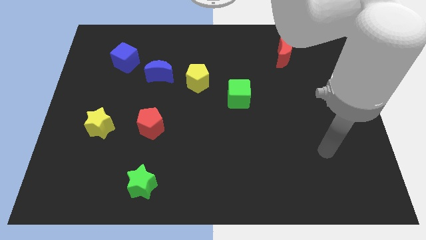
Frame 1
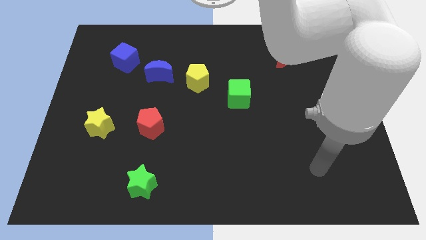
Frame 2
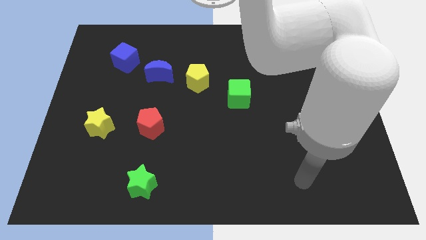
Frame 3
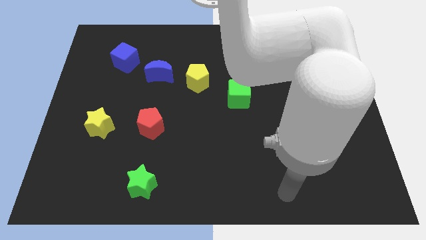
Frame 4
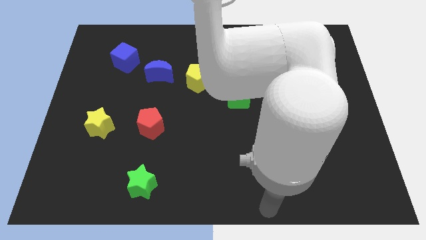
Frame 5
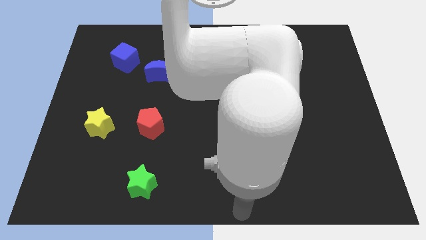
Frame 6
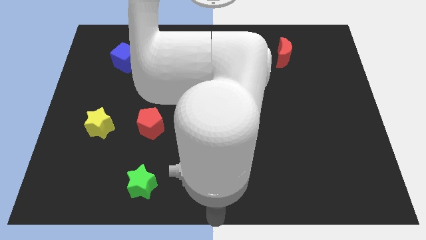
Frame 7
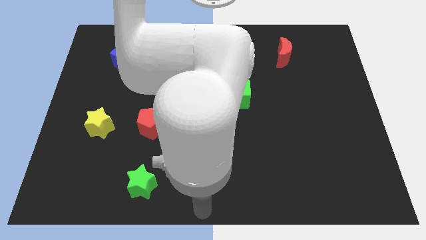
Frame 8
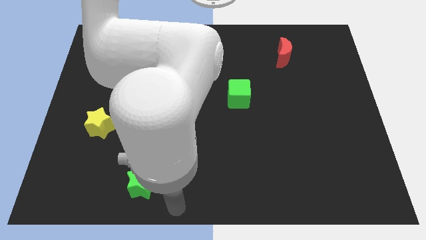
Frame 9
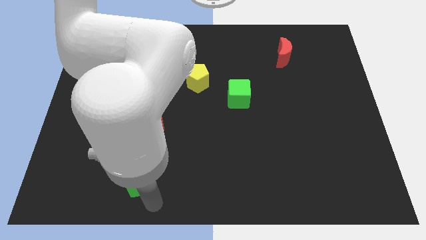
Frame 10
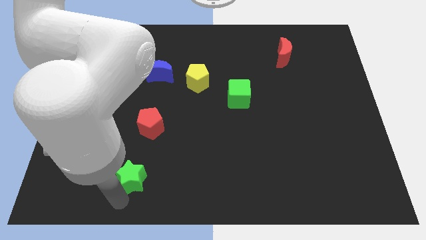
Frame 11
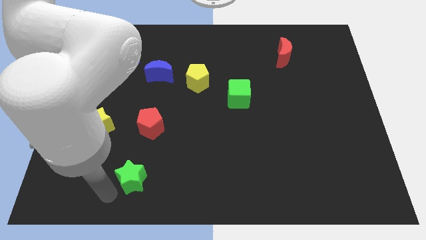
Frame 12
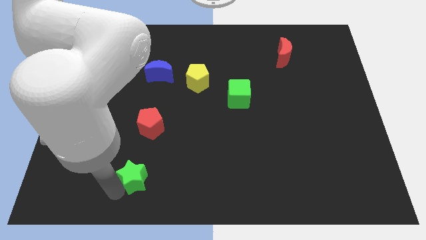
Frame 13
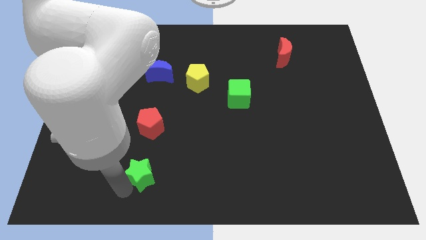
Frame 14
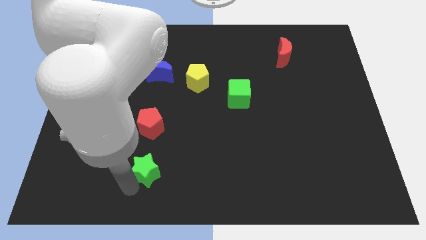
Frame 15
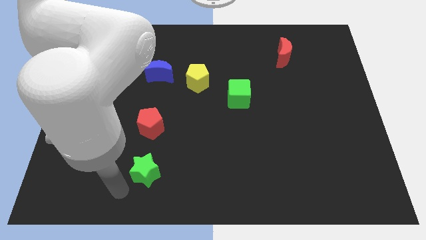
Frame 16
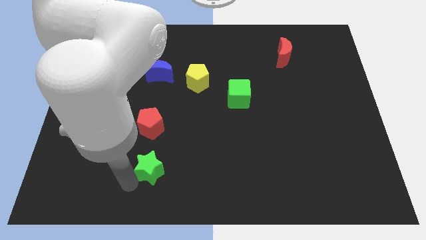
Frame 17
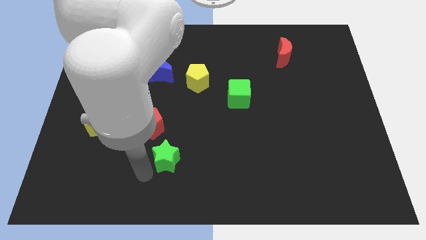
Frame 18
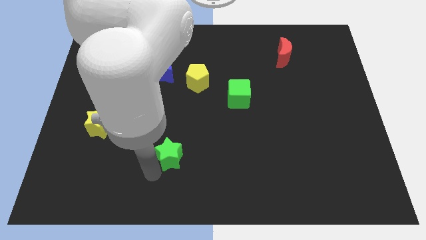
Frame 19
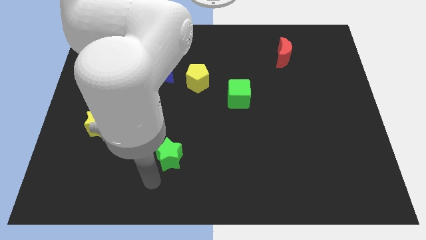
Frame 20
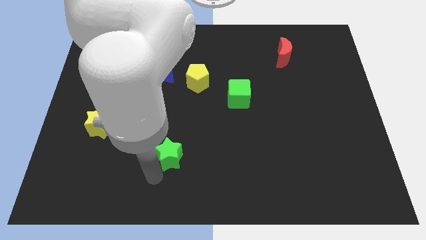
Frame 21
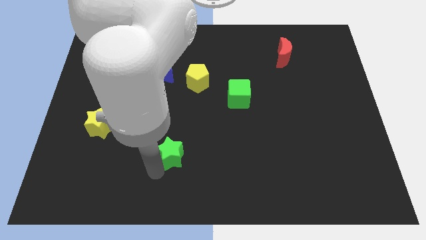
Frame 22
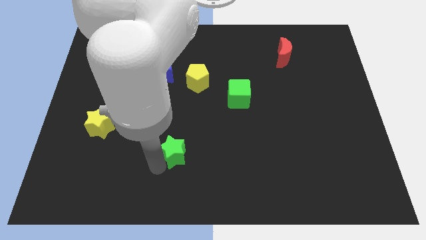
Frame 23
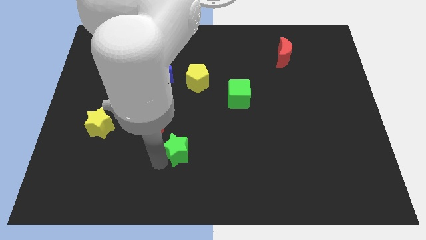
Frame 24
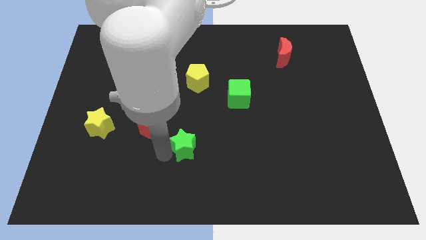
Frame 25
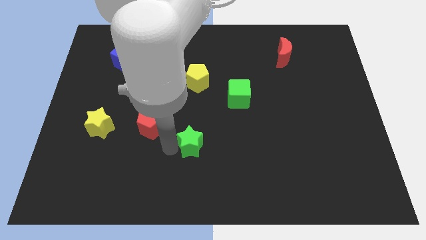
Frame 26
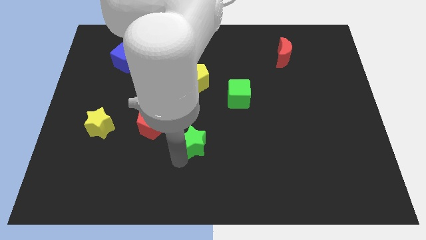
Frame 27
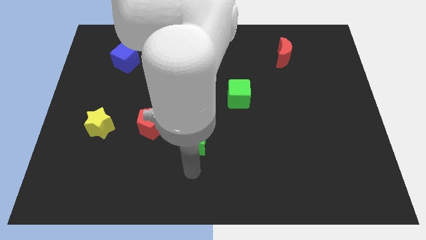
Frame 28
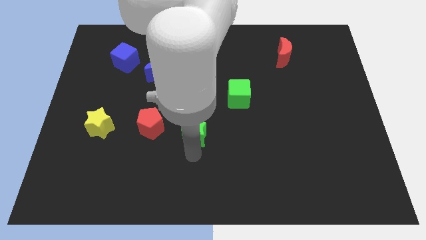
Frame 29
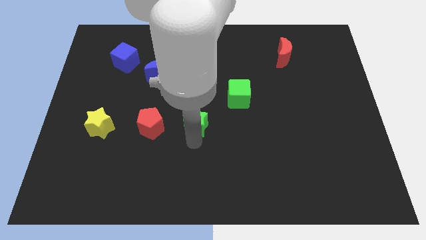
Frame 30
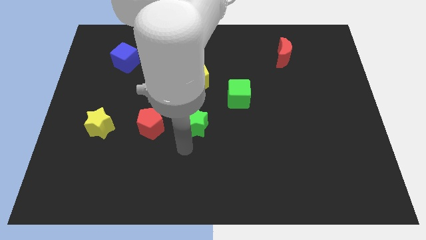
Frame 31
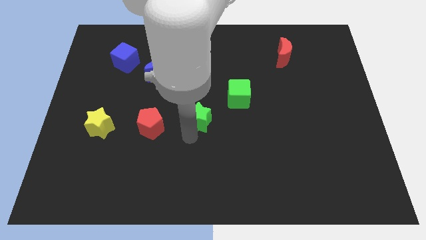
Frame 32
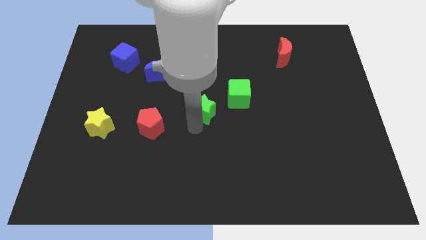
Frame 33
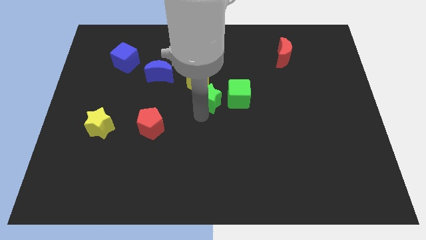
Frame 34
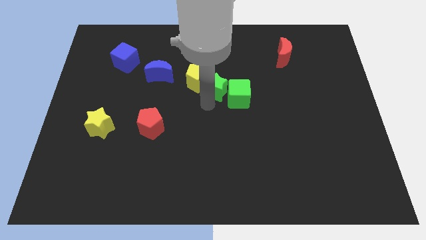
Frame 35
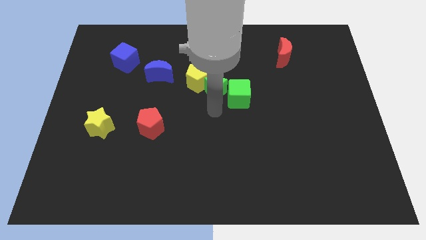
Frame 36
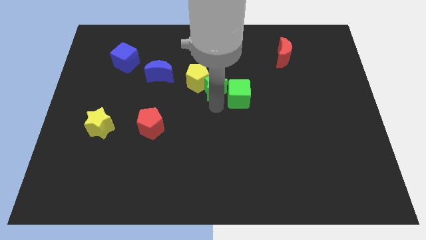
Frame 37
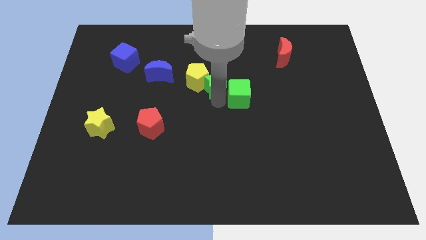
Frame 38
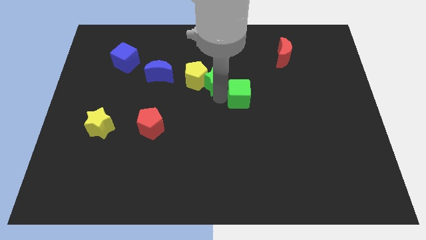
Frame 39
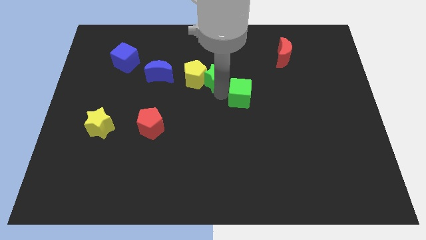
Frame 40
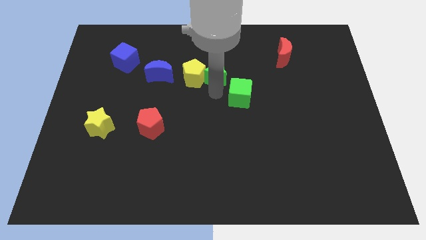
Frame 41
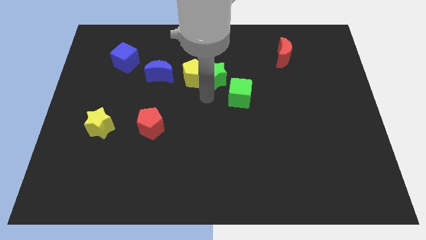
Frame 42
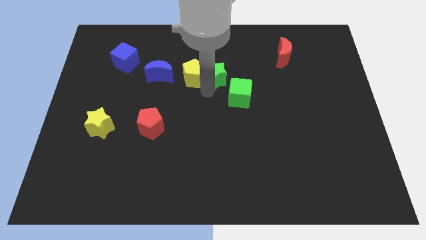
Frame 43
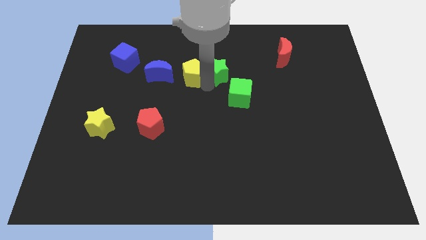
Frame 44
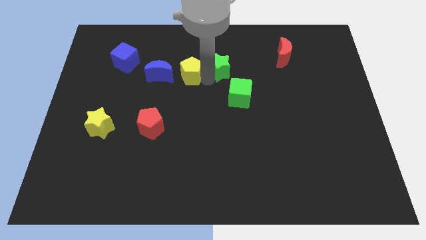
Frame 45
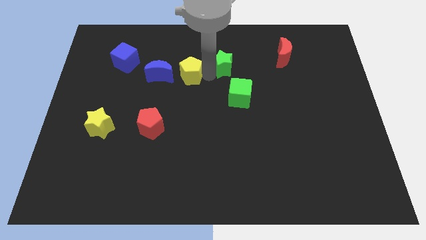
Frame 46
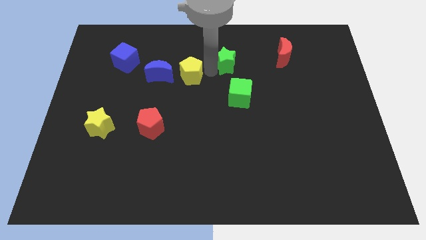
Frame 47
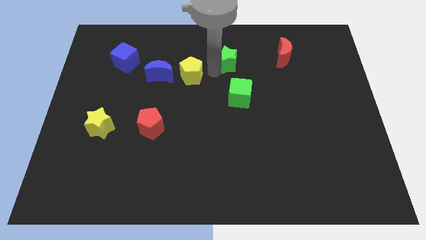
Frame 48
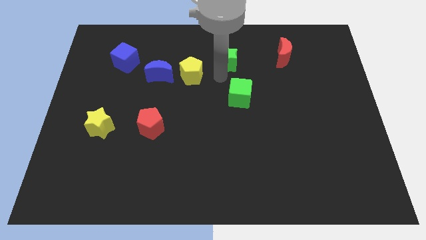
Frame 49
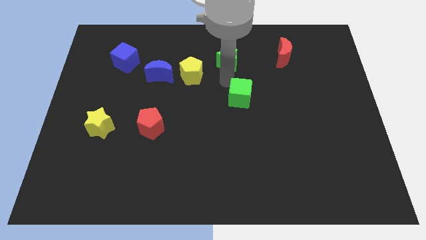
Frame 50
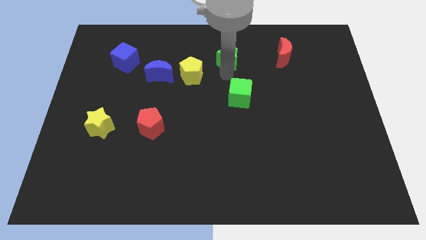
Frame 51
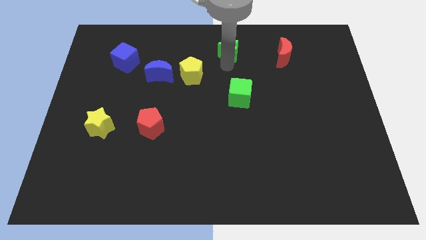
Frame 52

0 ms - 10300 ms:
put the green star to the top side

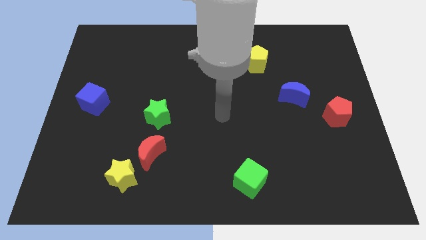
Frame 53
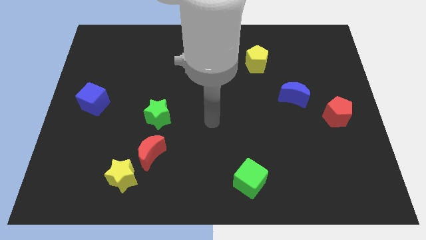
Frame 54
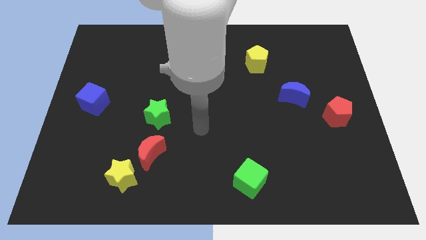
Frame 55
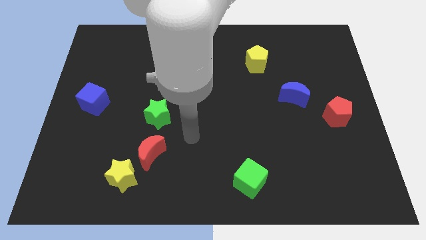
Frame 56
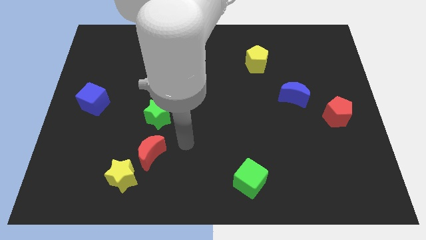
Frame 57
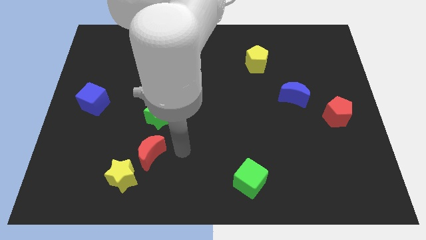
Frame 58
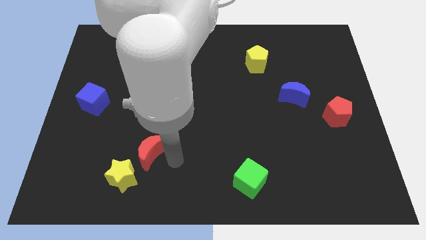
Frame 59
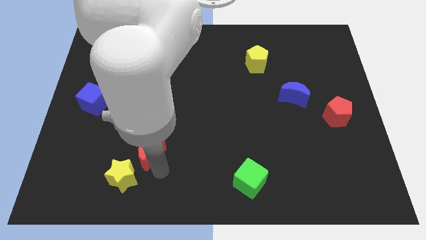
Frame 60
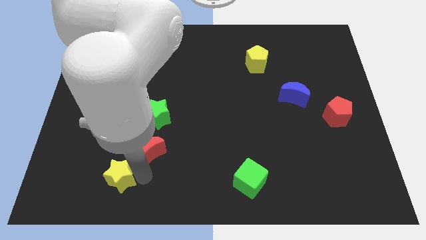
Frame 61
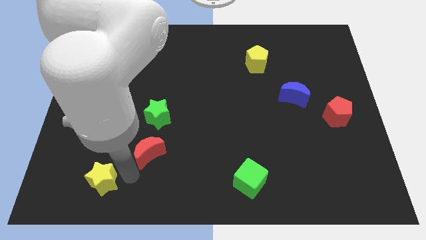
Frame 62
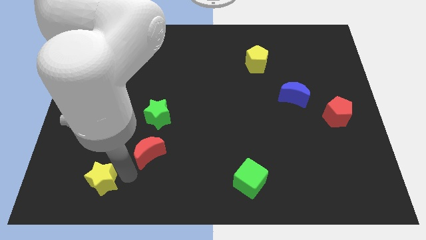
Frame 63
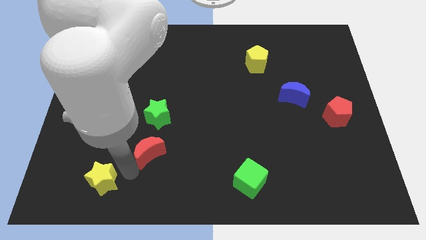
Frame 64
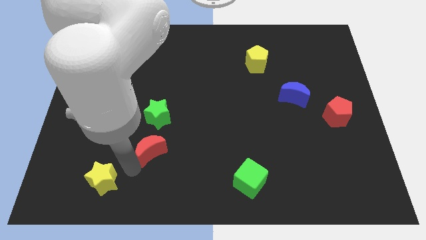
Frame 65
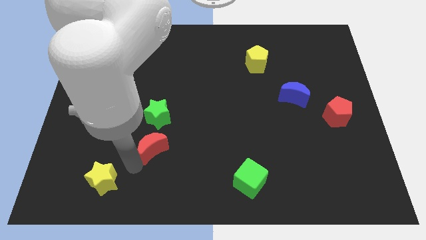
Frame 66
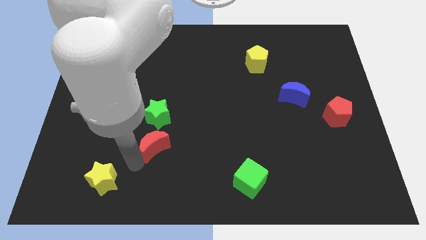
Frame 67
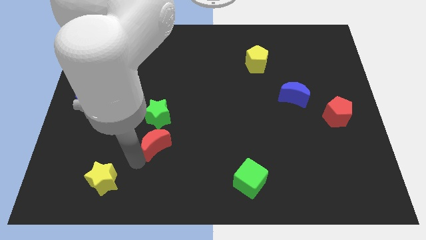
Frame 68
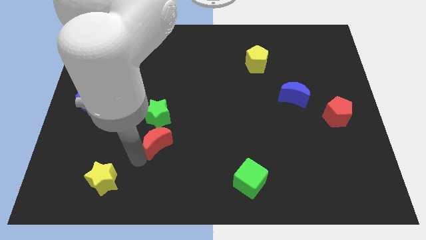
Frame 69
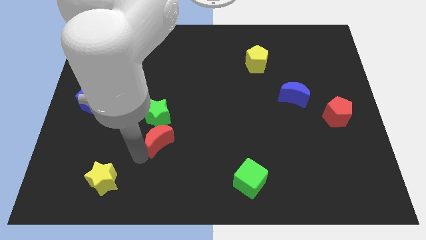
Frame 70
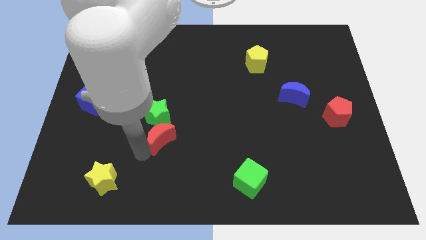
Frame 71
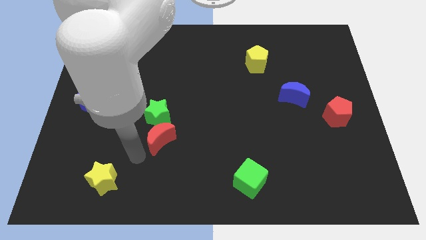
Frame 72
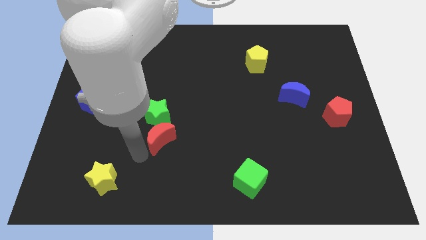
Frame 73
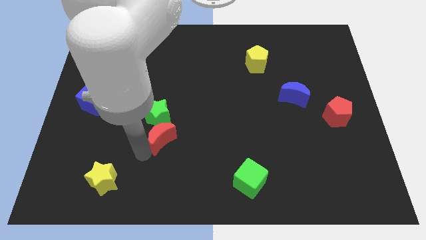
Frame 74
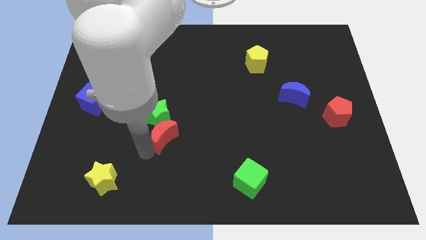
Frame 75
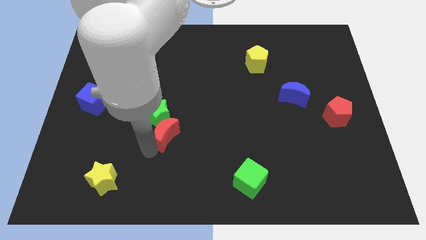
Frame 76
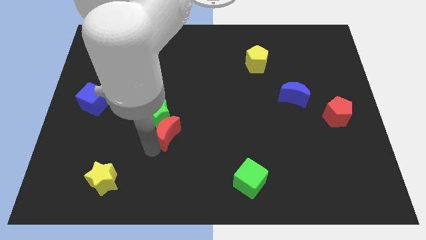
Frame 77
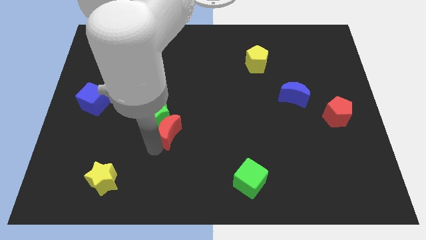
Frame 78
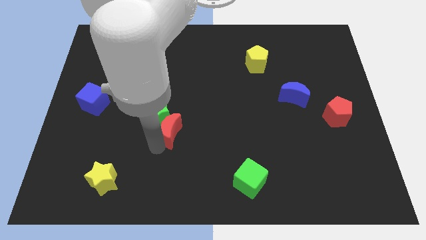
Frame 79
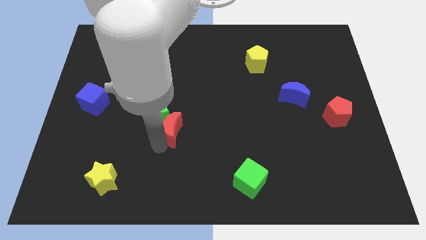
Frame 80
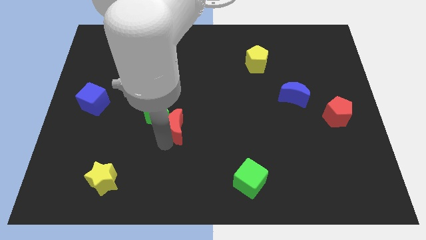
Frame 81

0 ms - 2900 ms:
move the red moon to the middle of the board
